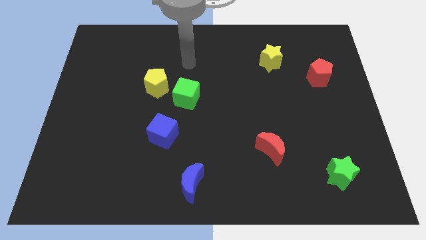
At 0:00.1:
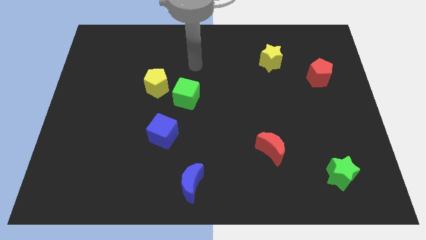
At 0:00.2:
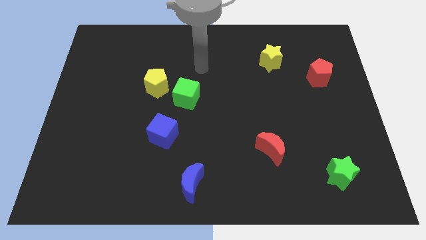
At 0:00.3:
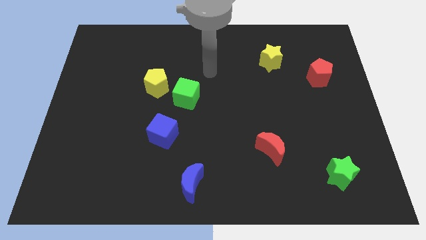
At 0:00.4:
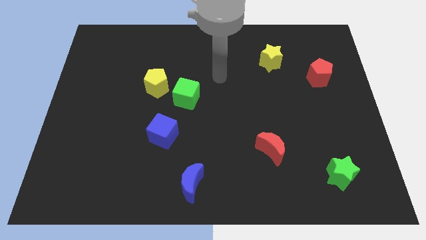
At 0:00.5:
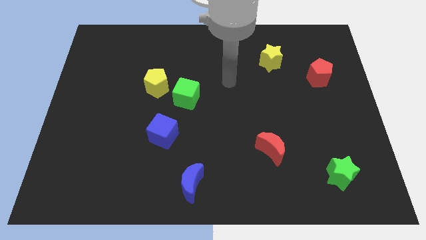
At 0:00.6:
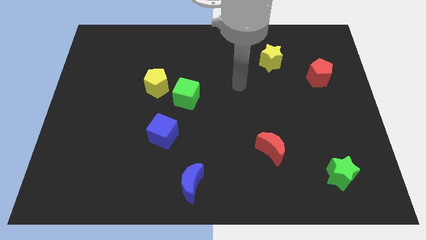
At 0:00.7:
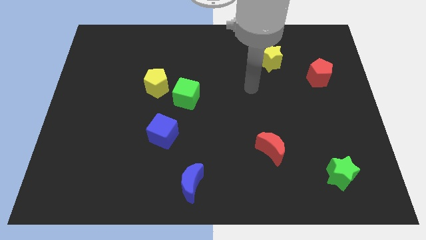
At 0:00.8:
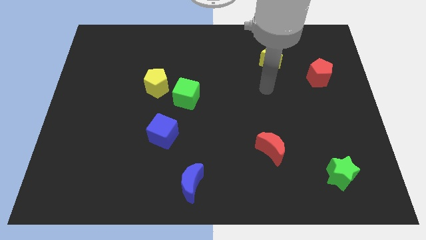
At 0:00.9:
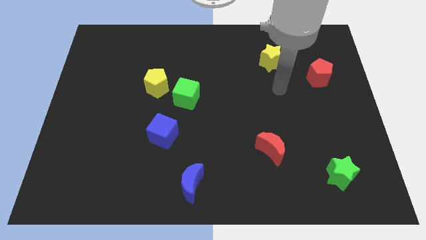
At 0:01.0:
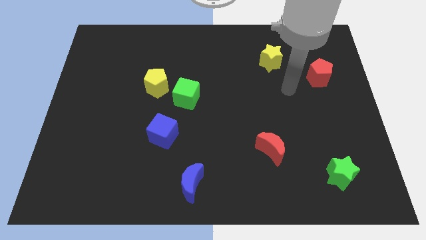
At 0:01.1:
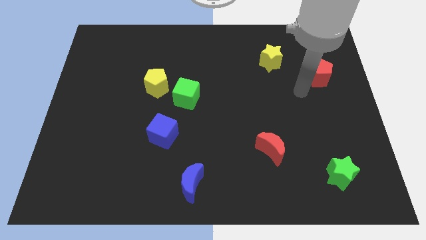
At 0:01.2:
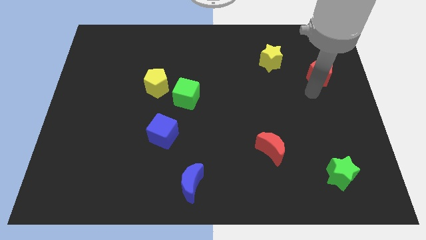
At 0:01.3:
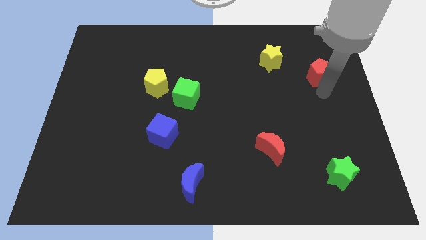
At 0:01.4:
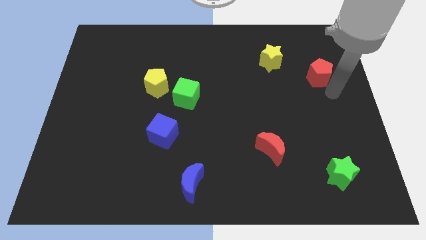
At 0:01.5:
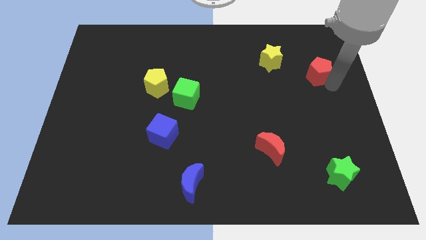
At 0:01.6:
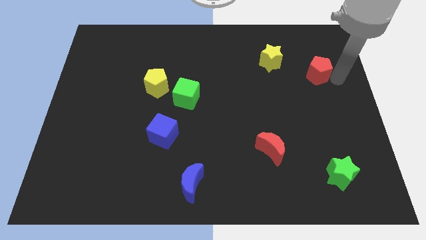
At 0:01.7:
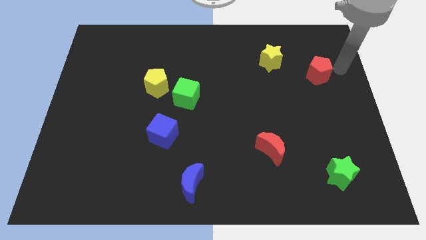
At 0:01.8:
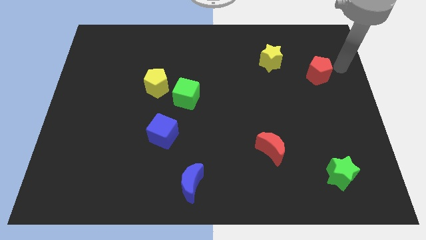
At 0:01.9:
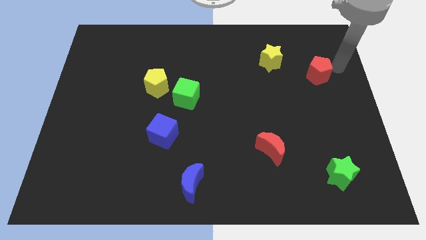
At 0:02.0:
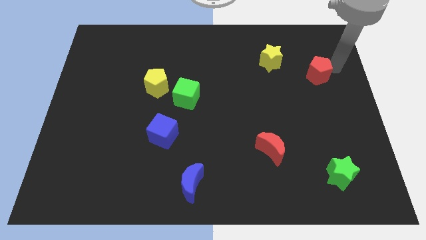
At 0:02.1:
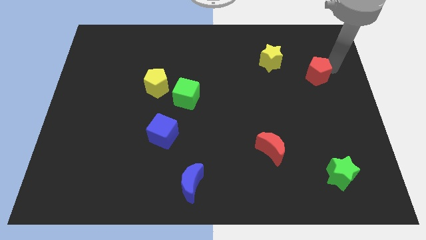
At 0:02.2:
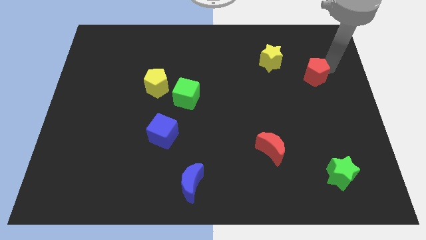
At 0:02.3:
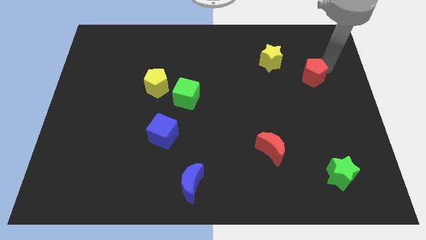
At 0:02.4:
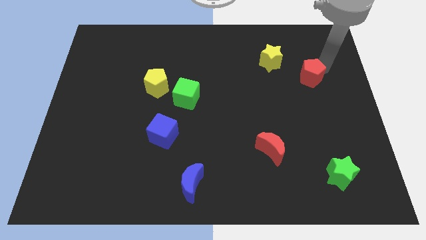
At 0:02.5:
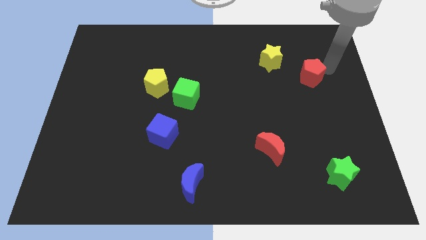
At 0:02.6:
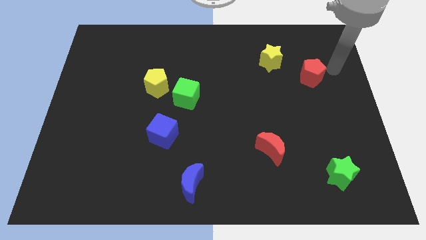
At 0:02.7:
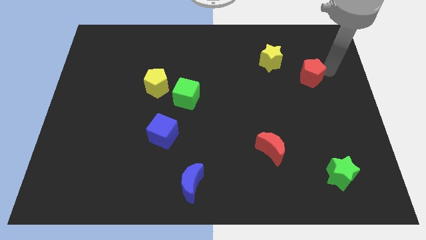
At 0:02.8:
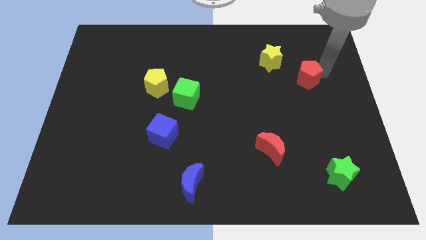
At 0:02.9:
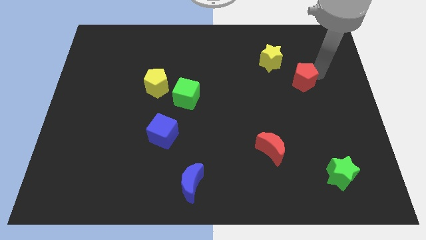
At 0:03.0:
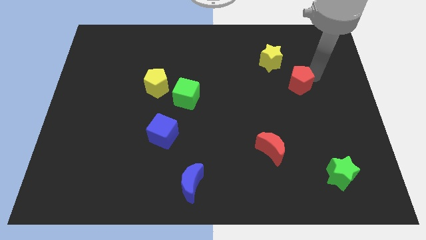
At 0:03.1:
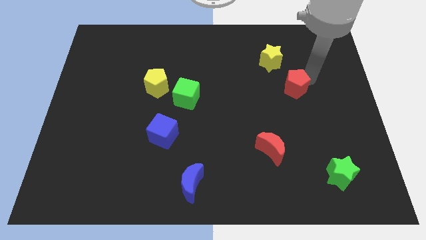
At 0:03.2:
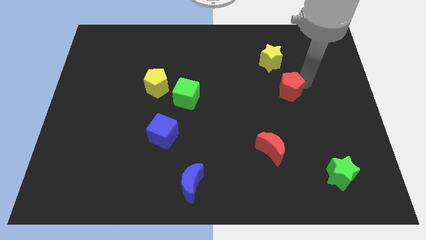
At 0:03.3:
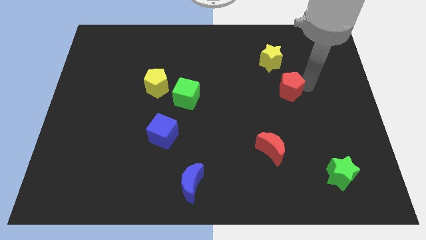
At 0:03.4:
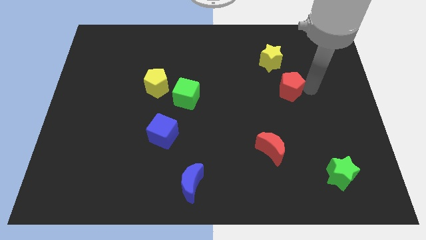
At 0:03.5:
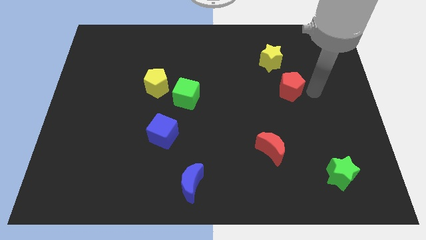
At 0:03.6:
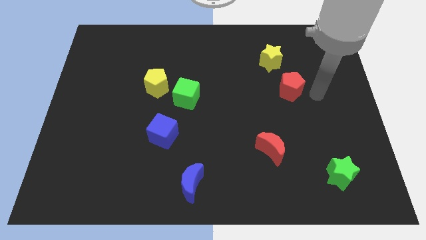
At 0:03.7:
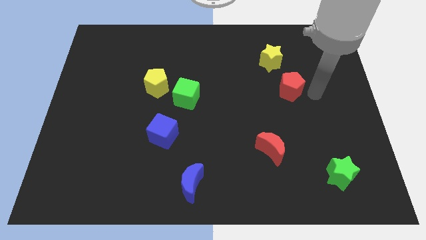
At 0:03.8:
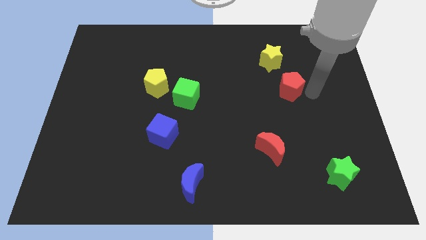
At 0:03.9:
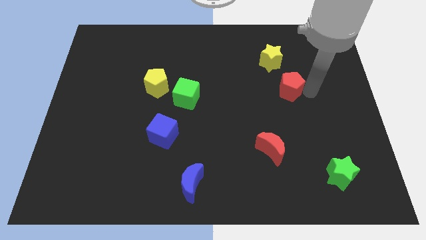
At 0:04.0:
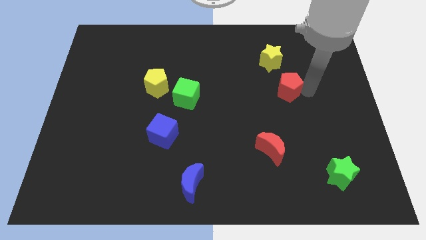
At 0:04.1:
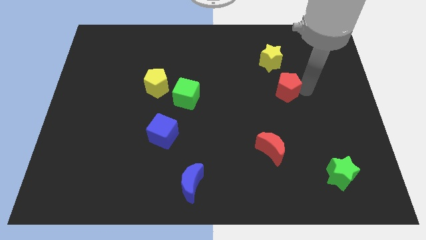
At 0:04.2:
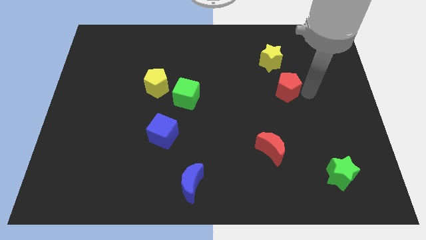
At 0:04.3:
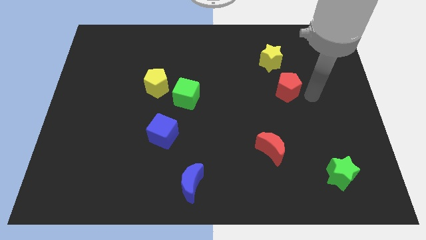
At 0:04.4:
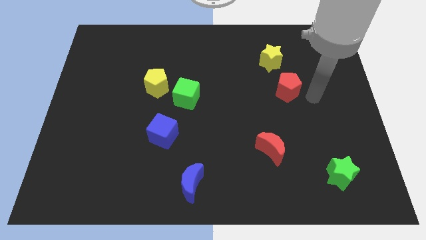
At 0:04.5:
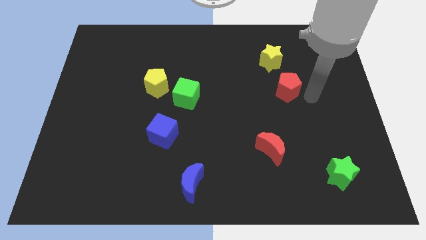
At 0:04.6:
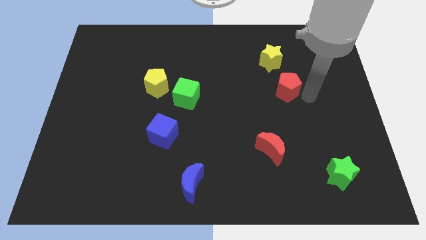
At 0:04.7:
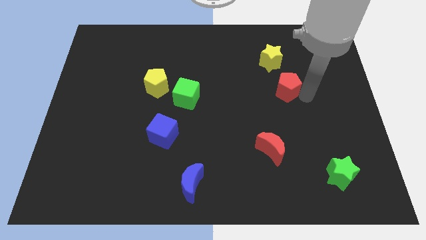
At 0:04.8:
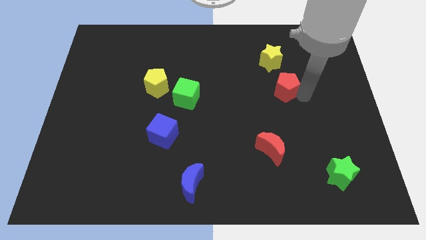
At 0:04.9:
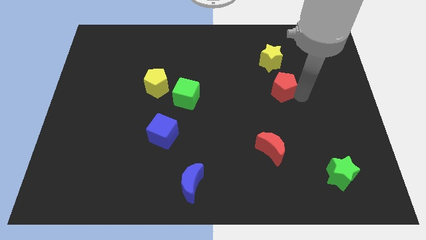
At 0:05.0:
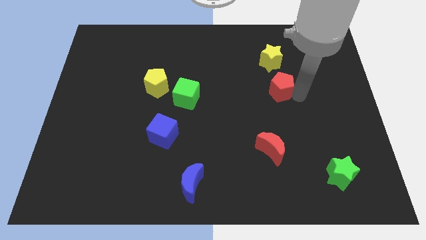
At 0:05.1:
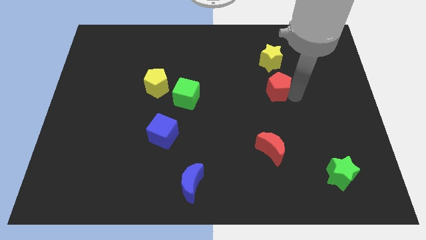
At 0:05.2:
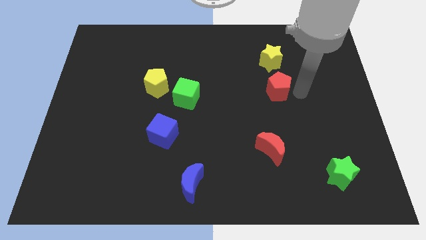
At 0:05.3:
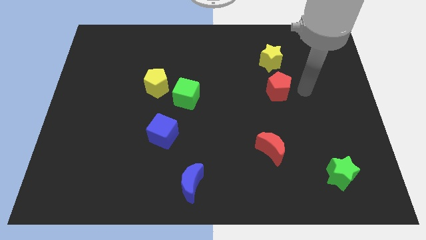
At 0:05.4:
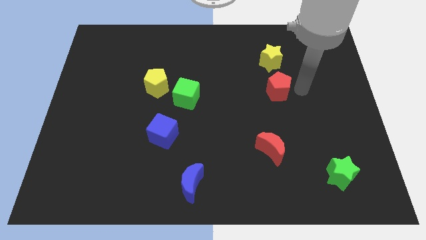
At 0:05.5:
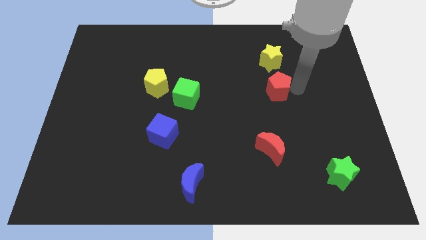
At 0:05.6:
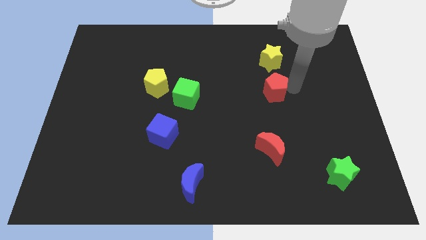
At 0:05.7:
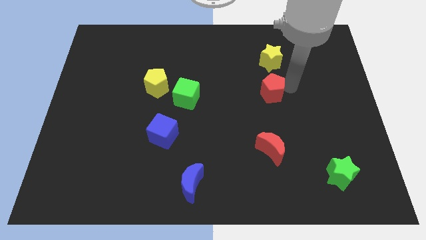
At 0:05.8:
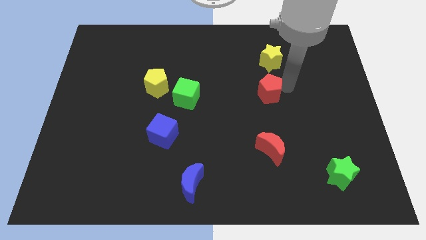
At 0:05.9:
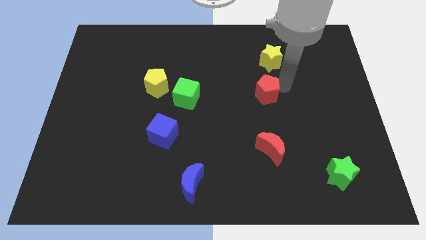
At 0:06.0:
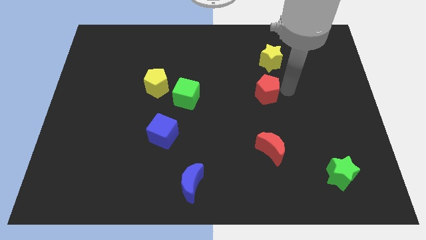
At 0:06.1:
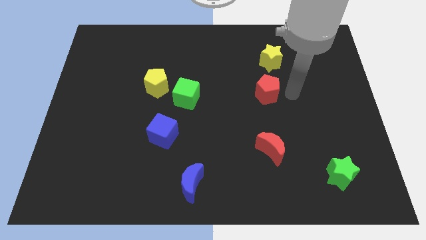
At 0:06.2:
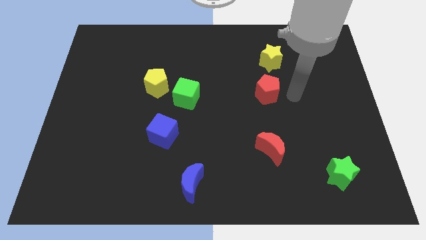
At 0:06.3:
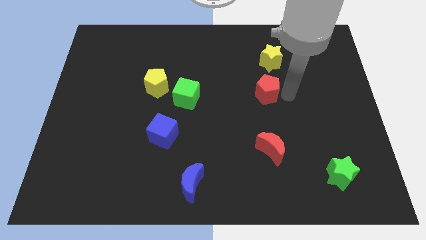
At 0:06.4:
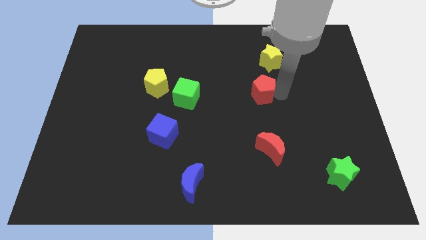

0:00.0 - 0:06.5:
put the red pentagon to the center of the board

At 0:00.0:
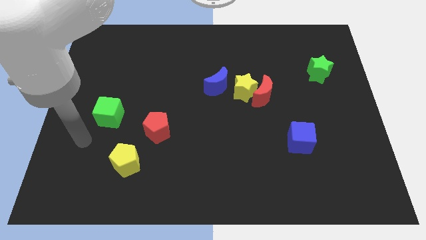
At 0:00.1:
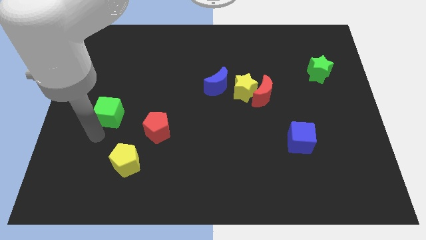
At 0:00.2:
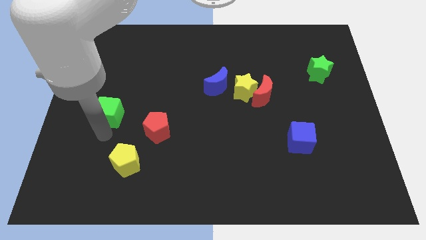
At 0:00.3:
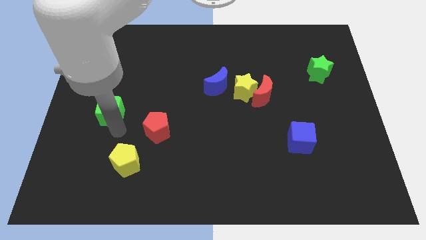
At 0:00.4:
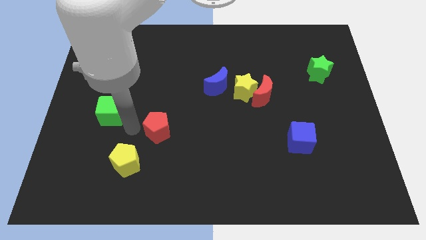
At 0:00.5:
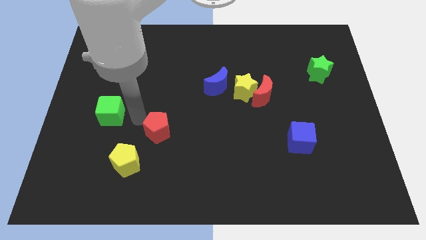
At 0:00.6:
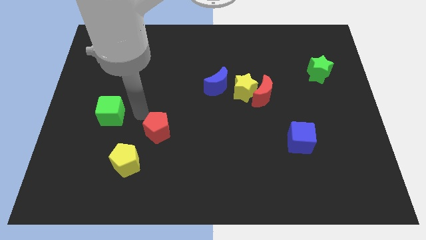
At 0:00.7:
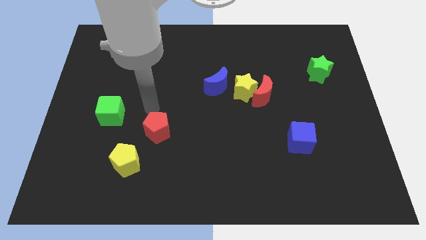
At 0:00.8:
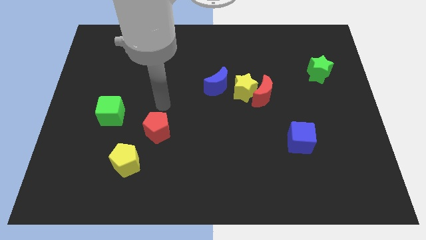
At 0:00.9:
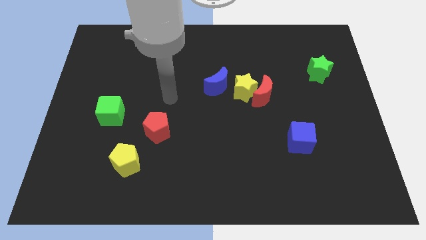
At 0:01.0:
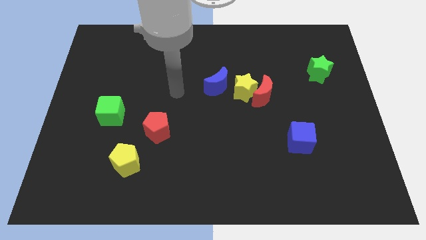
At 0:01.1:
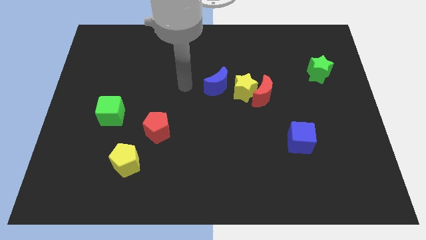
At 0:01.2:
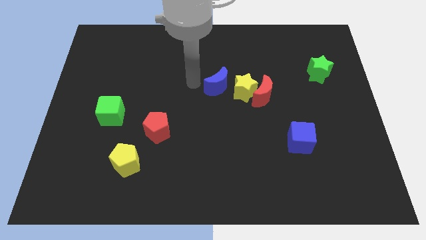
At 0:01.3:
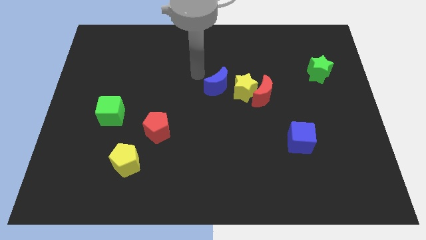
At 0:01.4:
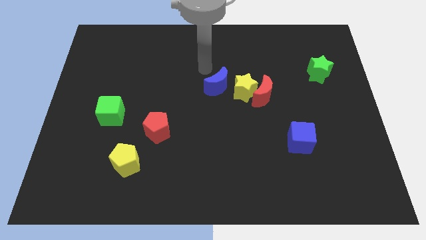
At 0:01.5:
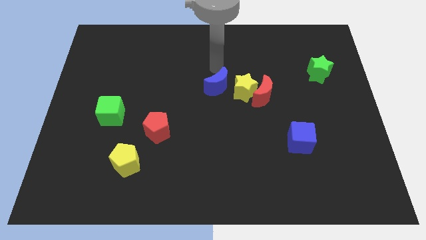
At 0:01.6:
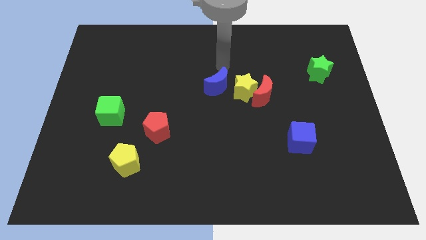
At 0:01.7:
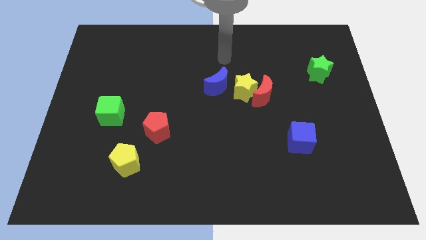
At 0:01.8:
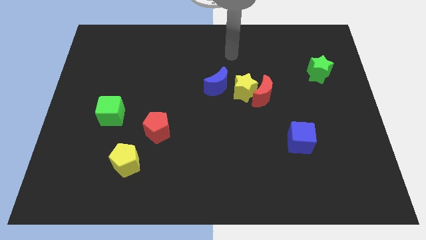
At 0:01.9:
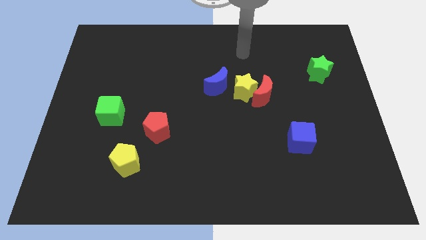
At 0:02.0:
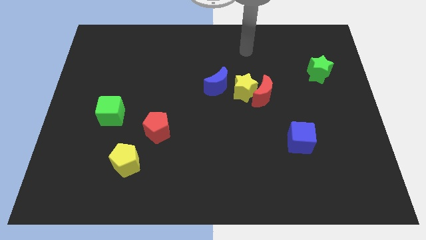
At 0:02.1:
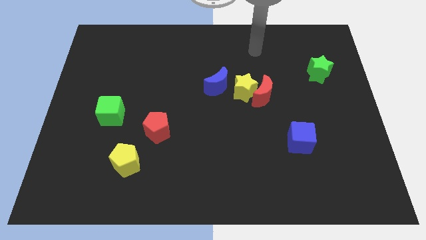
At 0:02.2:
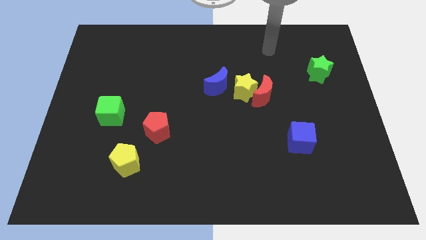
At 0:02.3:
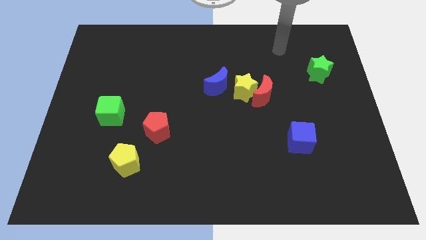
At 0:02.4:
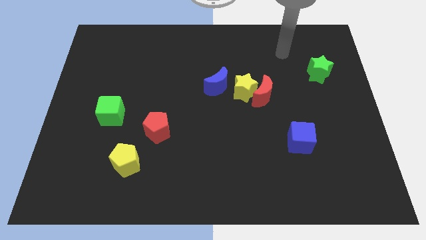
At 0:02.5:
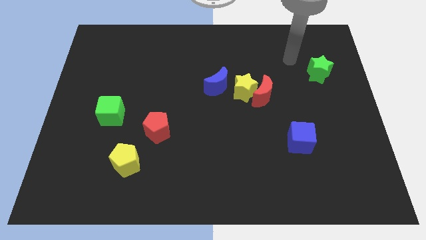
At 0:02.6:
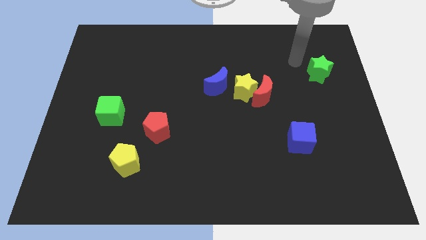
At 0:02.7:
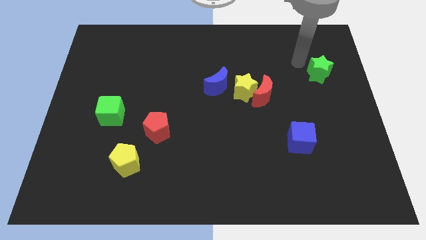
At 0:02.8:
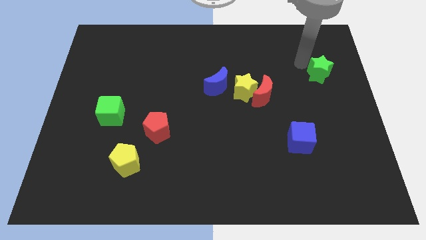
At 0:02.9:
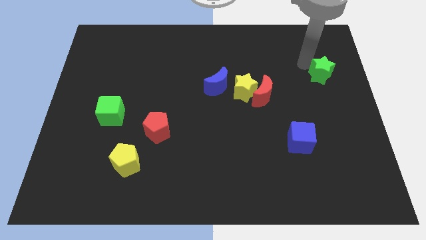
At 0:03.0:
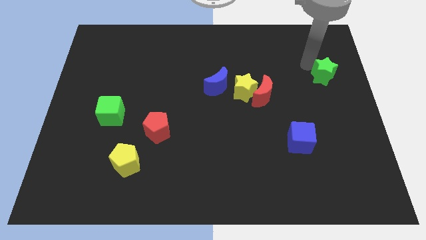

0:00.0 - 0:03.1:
move the green star to the right side
